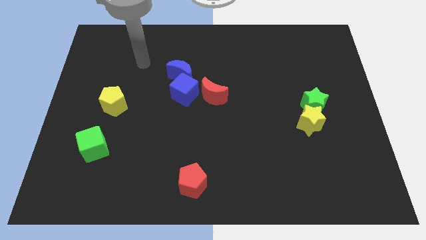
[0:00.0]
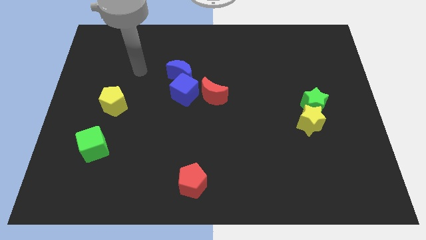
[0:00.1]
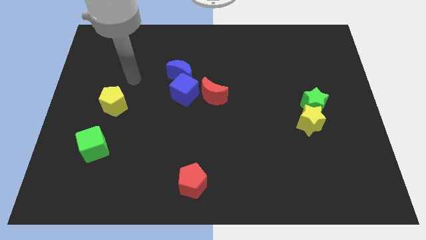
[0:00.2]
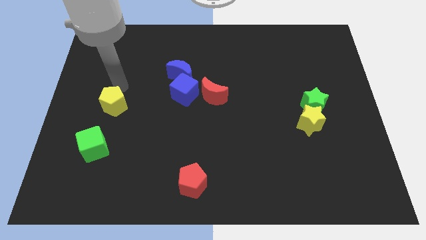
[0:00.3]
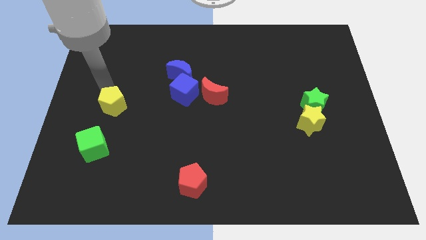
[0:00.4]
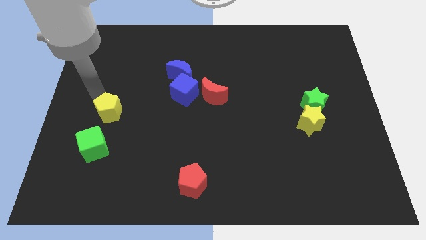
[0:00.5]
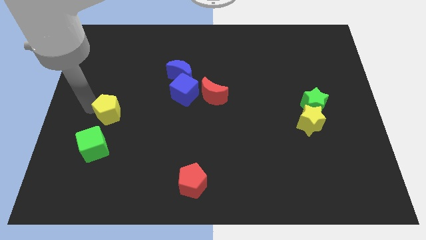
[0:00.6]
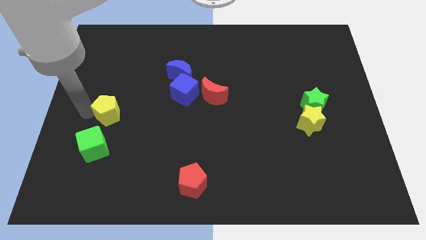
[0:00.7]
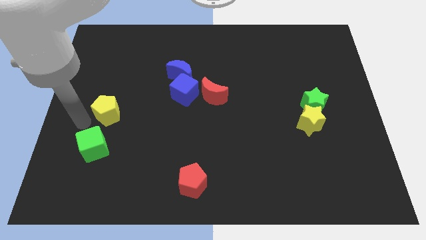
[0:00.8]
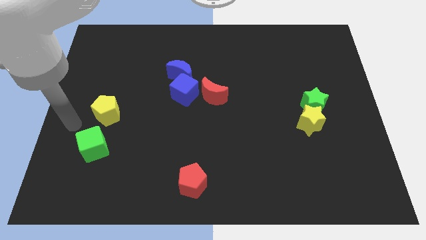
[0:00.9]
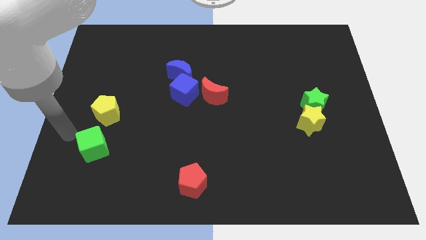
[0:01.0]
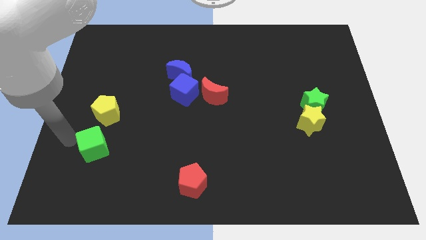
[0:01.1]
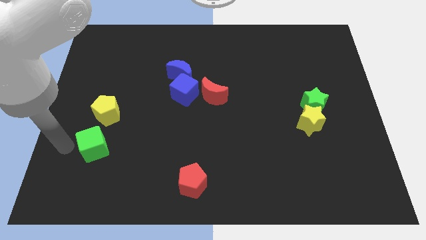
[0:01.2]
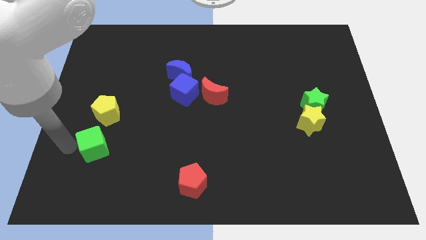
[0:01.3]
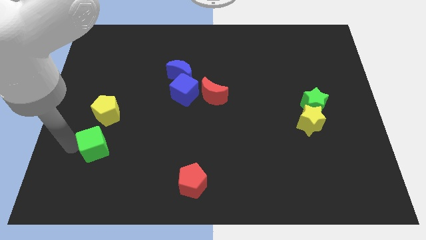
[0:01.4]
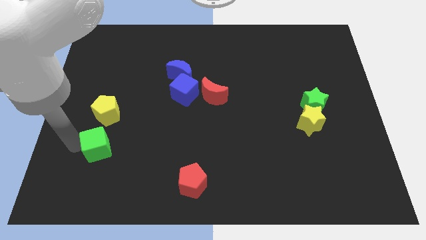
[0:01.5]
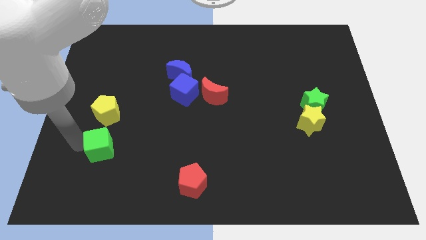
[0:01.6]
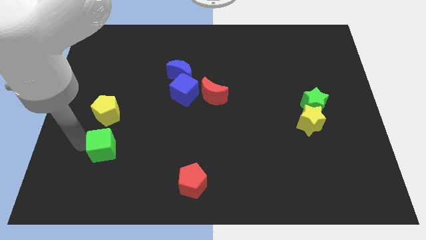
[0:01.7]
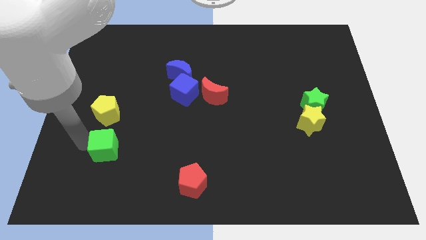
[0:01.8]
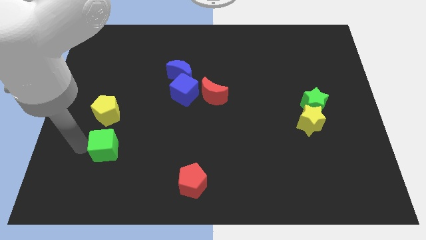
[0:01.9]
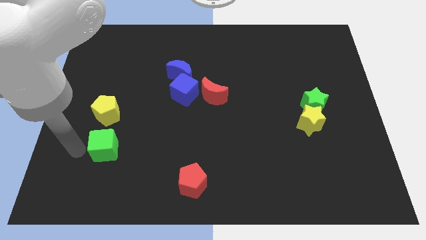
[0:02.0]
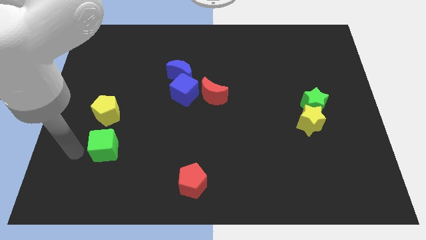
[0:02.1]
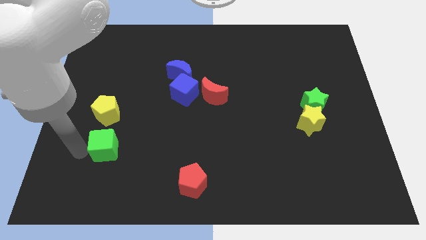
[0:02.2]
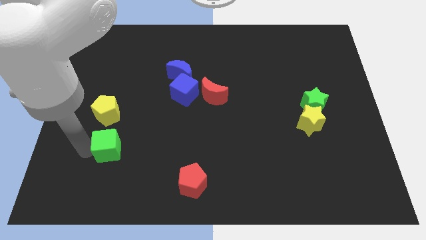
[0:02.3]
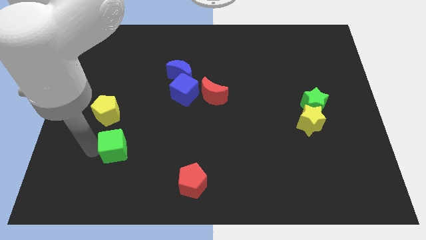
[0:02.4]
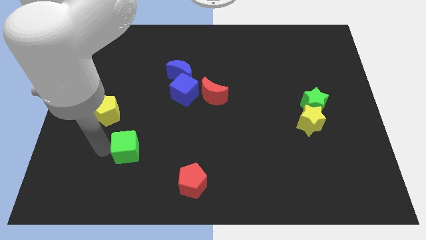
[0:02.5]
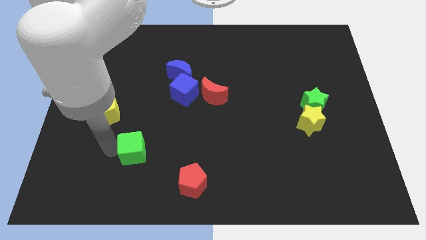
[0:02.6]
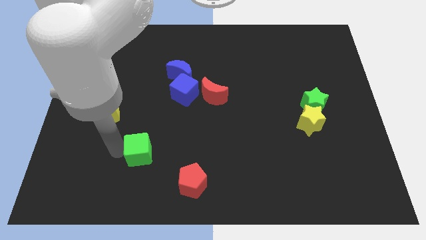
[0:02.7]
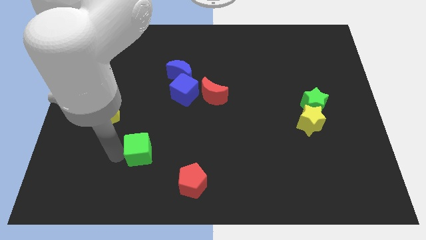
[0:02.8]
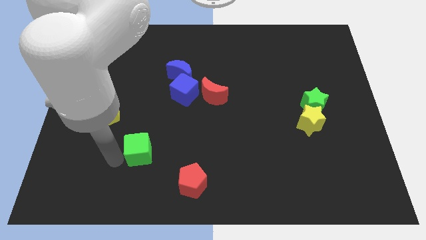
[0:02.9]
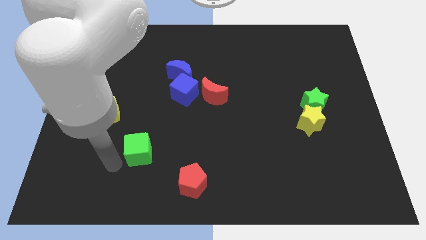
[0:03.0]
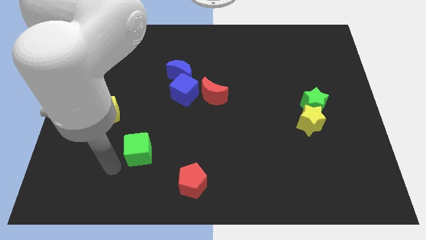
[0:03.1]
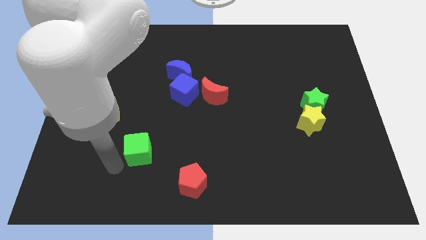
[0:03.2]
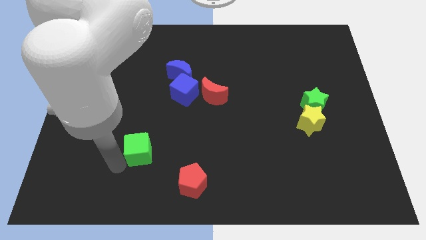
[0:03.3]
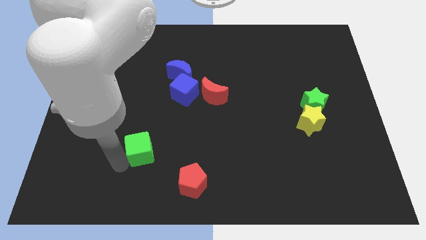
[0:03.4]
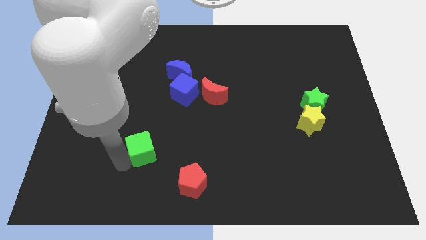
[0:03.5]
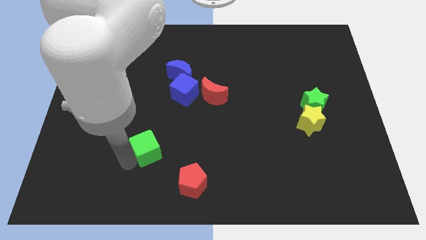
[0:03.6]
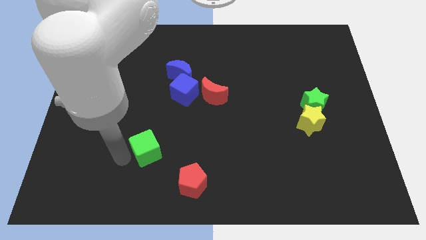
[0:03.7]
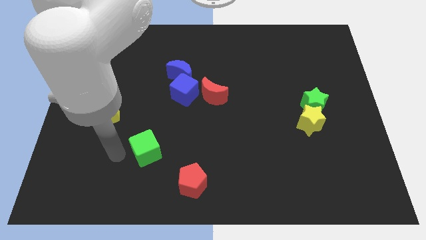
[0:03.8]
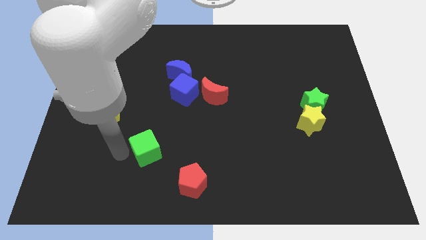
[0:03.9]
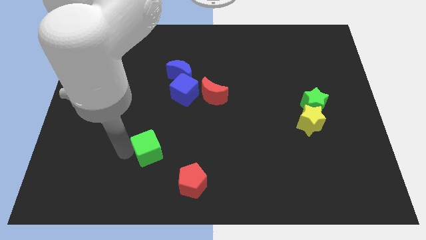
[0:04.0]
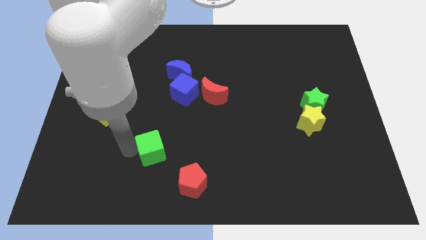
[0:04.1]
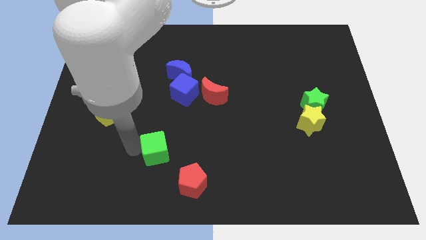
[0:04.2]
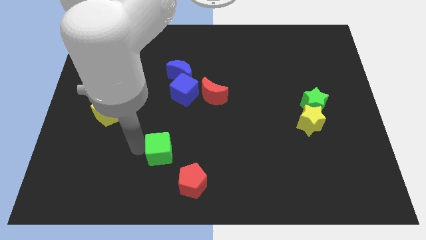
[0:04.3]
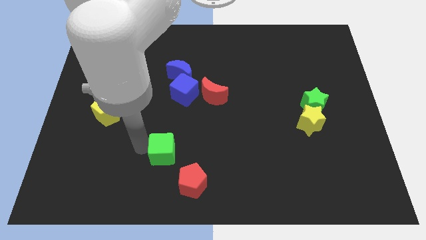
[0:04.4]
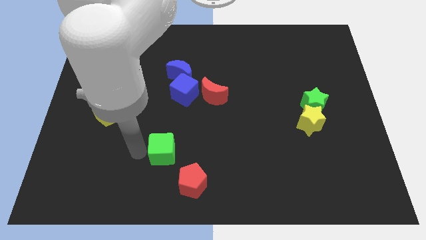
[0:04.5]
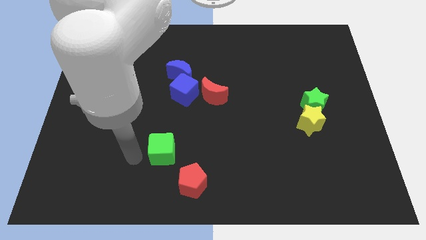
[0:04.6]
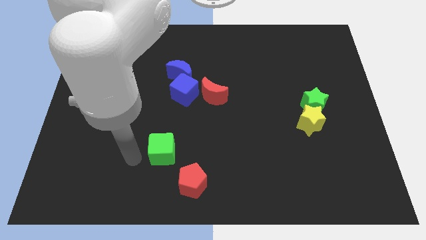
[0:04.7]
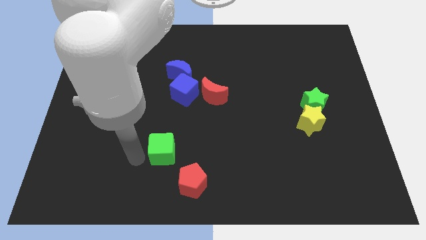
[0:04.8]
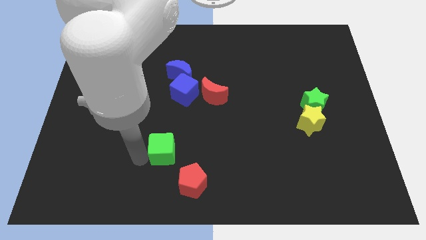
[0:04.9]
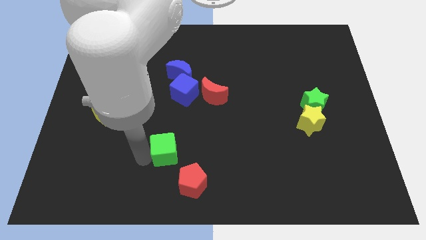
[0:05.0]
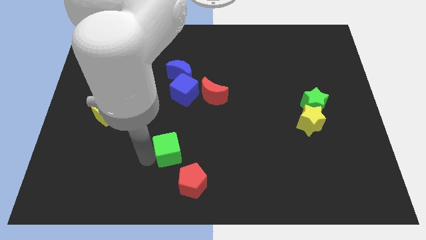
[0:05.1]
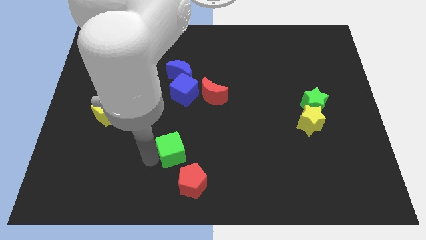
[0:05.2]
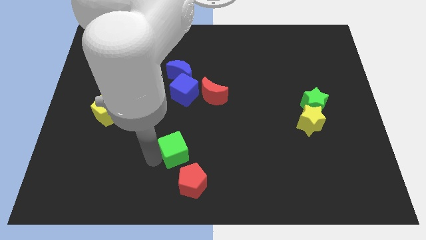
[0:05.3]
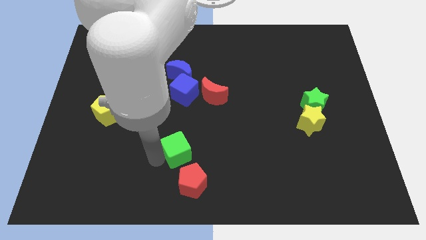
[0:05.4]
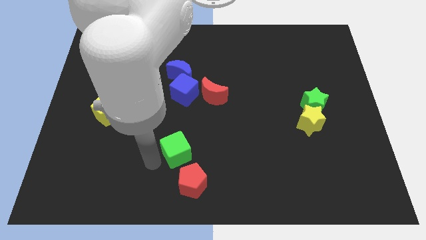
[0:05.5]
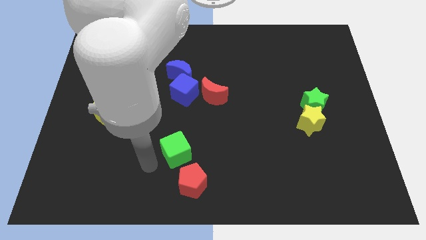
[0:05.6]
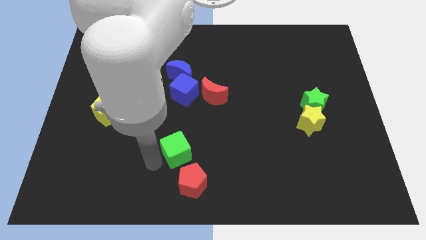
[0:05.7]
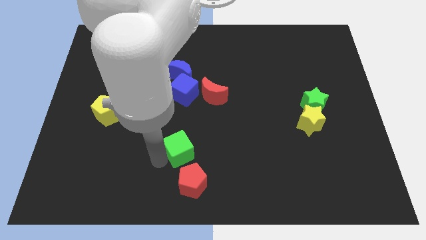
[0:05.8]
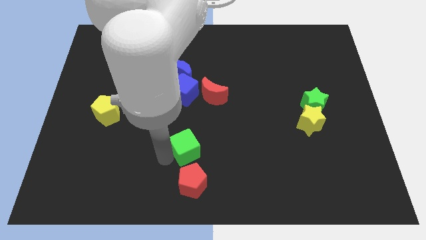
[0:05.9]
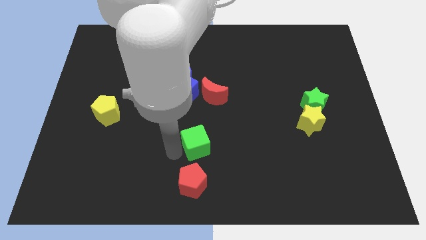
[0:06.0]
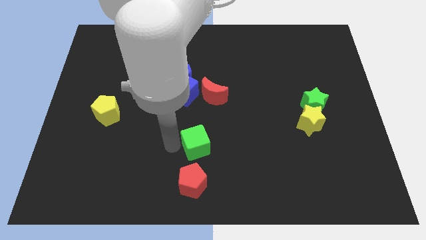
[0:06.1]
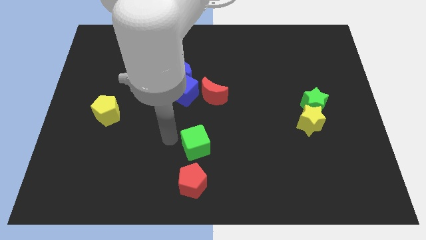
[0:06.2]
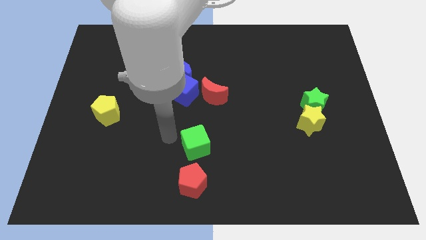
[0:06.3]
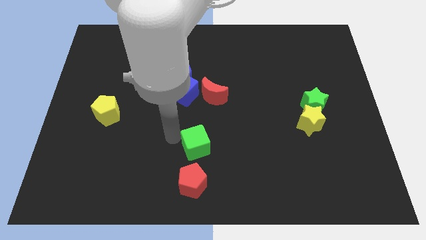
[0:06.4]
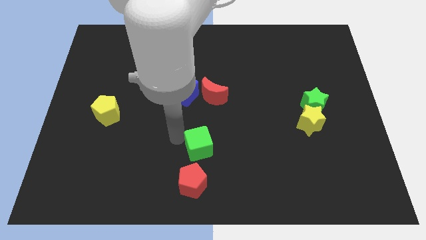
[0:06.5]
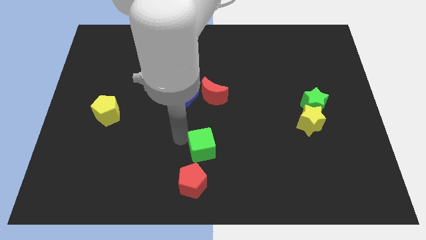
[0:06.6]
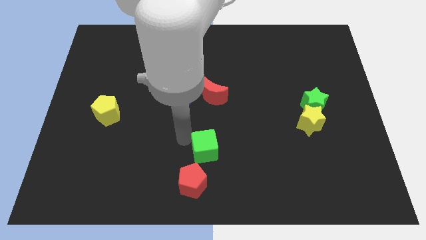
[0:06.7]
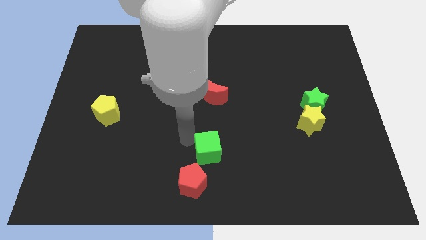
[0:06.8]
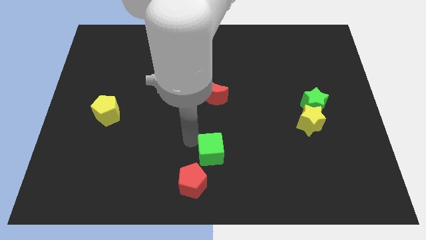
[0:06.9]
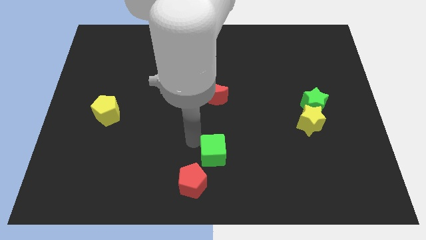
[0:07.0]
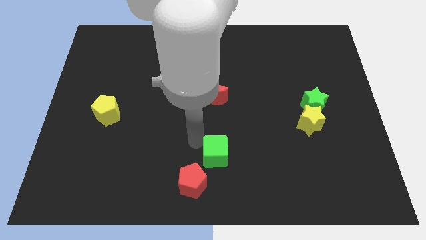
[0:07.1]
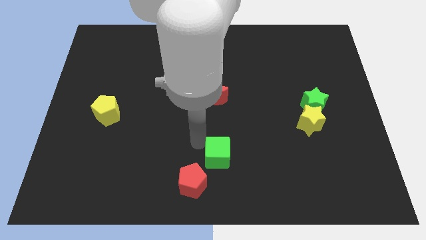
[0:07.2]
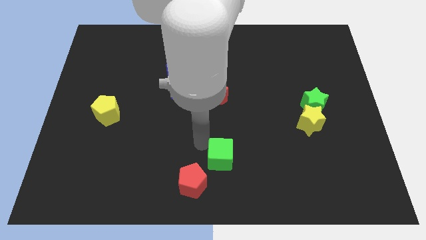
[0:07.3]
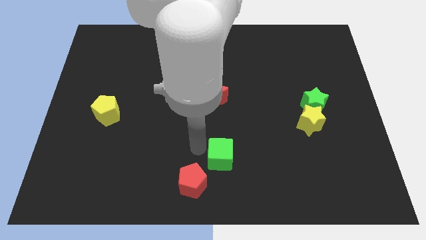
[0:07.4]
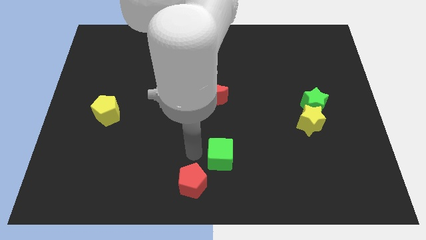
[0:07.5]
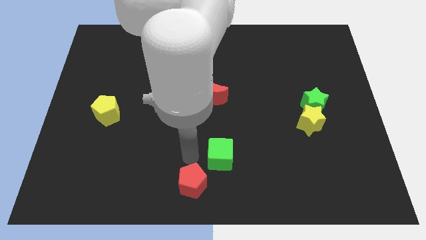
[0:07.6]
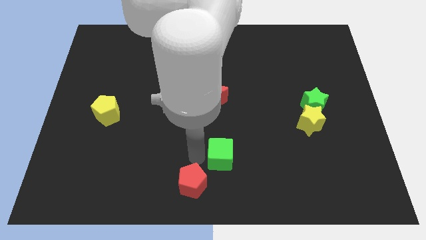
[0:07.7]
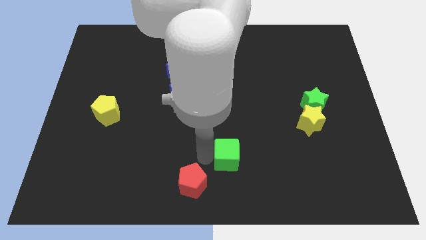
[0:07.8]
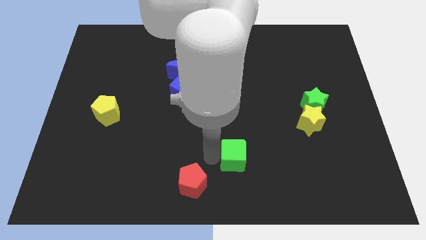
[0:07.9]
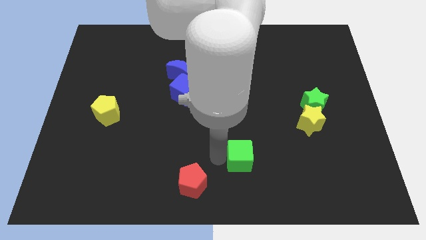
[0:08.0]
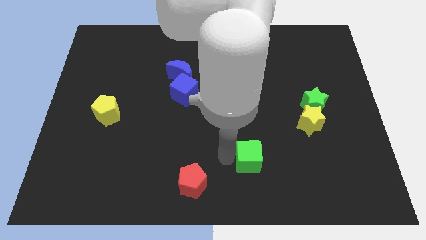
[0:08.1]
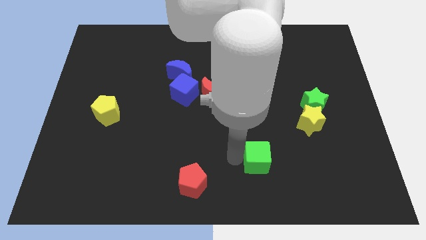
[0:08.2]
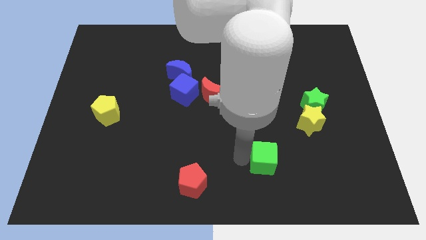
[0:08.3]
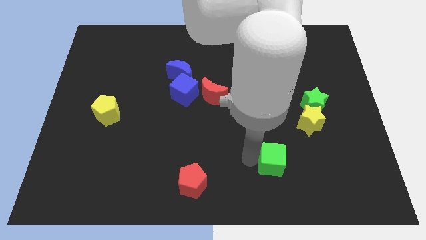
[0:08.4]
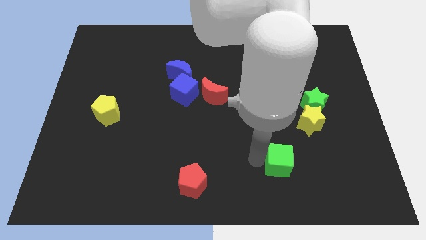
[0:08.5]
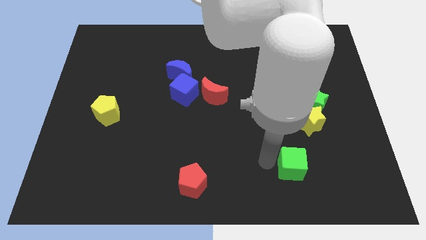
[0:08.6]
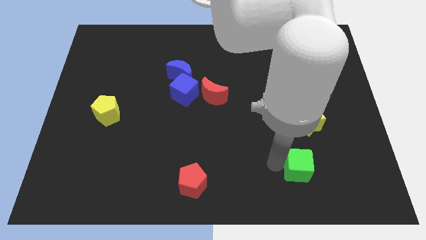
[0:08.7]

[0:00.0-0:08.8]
slide the green cube to the bottom of the yellow star
